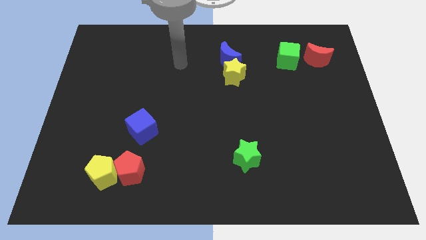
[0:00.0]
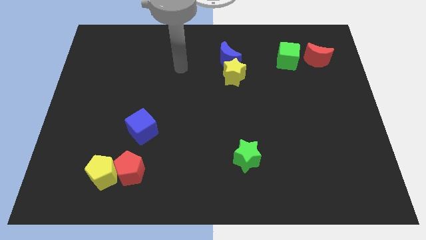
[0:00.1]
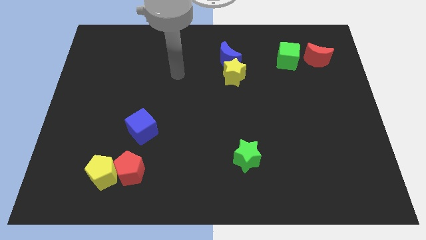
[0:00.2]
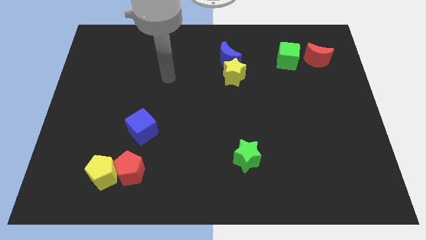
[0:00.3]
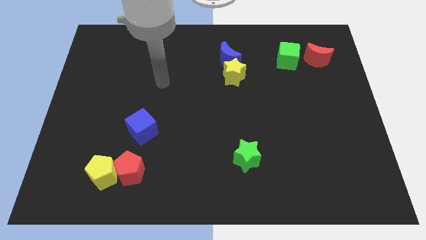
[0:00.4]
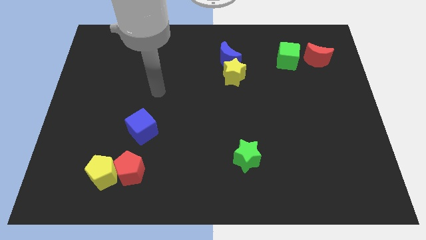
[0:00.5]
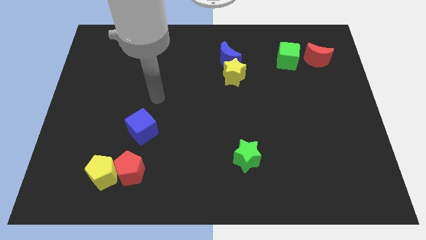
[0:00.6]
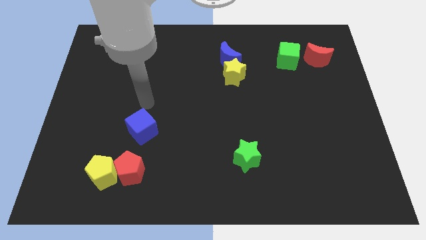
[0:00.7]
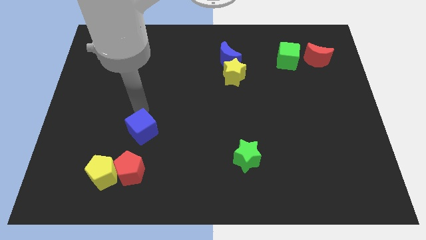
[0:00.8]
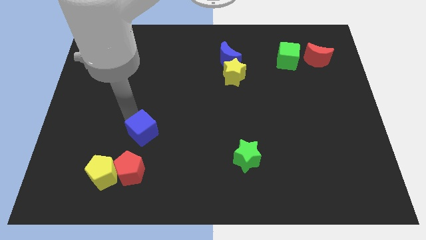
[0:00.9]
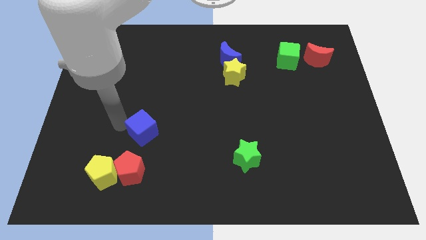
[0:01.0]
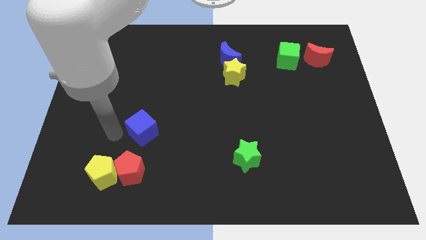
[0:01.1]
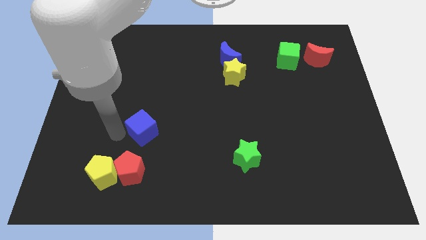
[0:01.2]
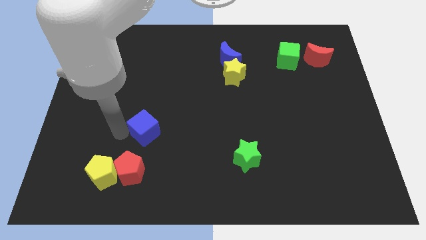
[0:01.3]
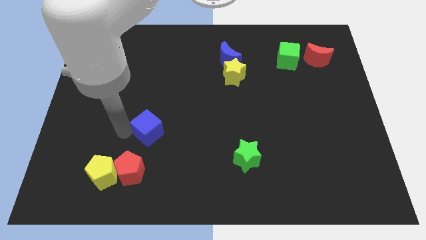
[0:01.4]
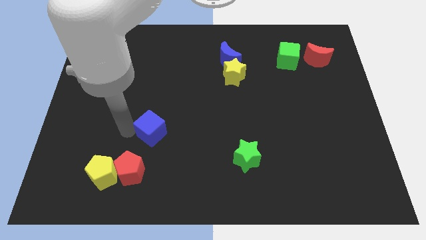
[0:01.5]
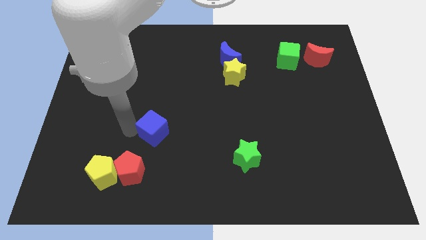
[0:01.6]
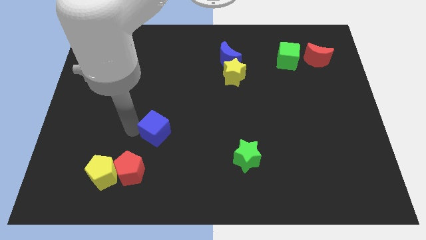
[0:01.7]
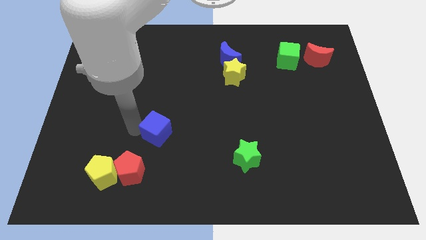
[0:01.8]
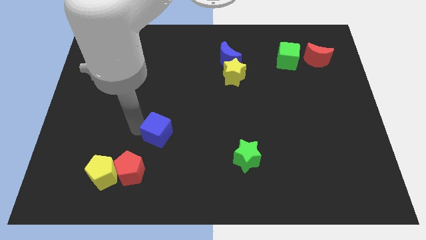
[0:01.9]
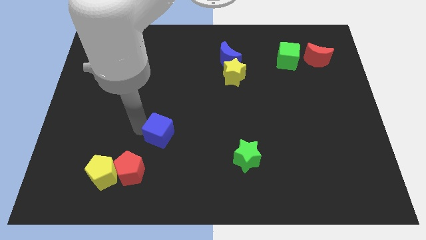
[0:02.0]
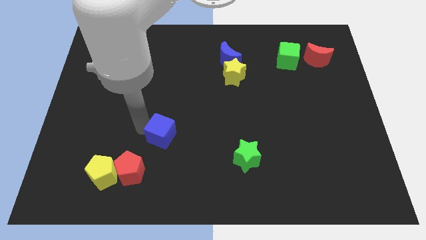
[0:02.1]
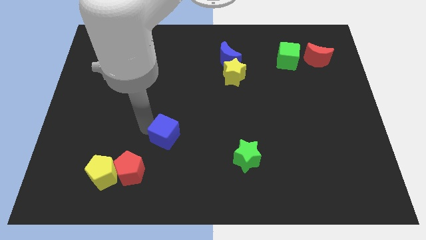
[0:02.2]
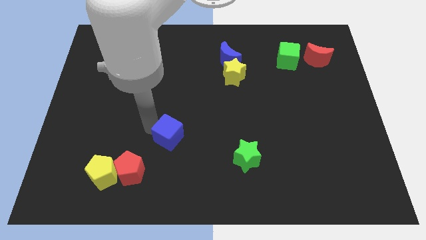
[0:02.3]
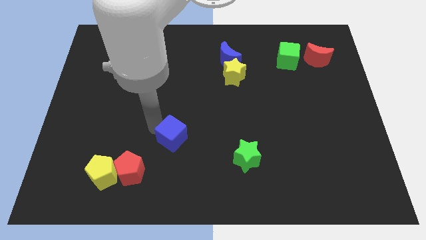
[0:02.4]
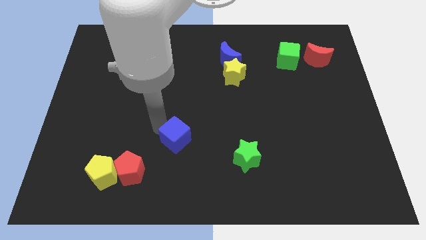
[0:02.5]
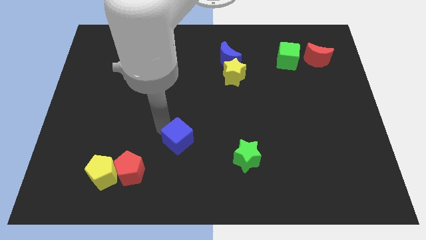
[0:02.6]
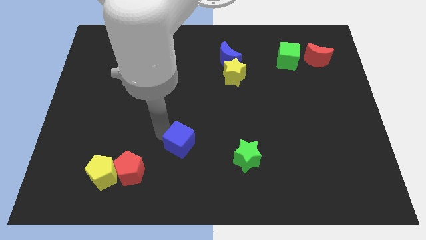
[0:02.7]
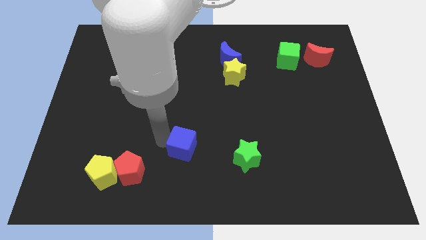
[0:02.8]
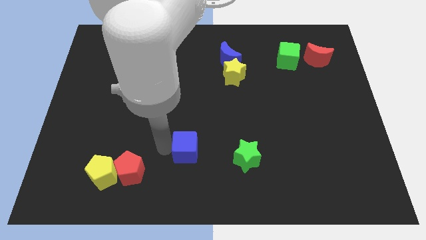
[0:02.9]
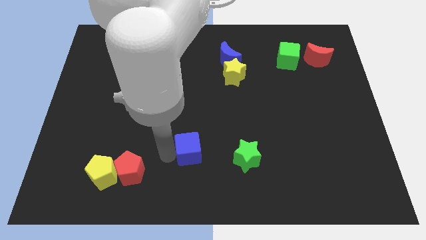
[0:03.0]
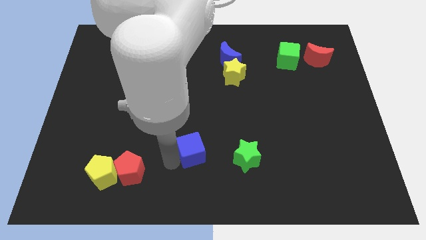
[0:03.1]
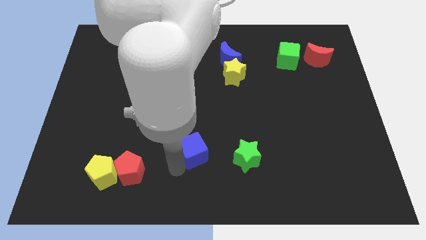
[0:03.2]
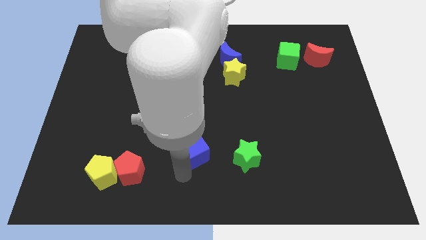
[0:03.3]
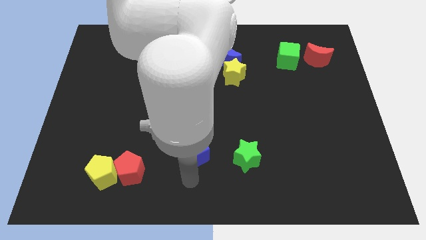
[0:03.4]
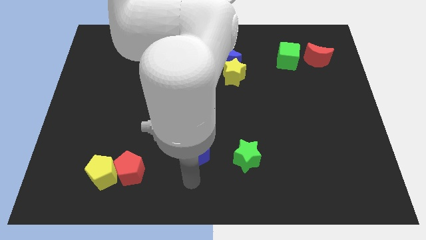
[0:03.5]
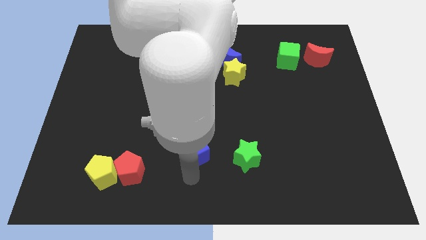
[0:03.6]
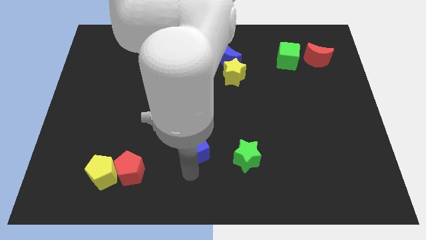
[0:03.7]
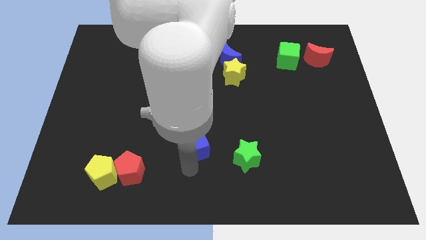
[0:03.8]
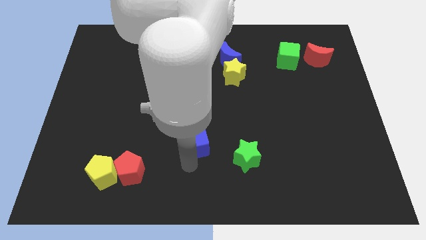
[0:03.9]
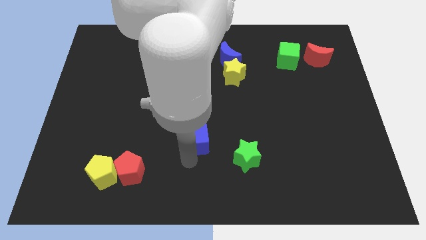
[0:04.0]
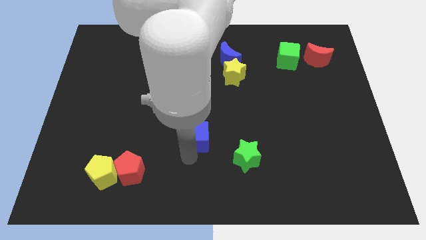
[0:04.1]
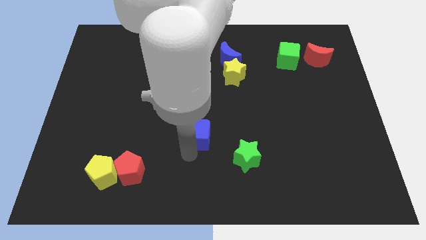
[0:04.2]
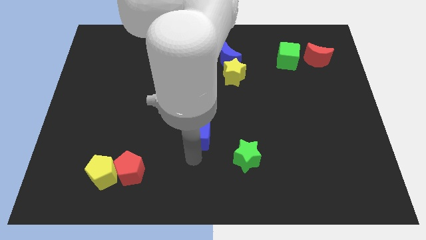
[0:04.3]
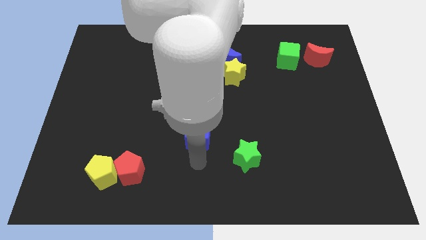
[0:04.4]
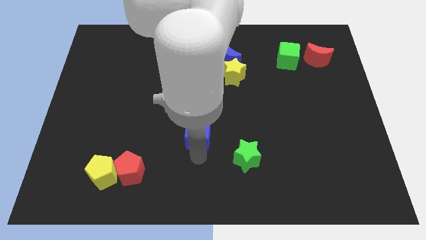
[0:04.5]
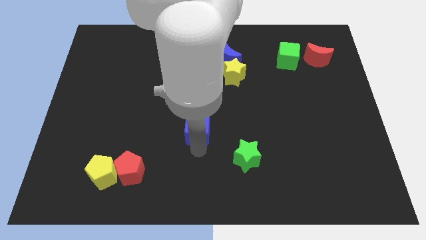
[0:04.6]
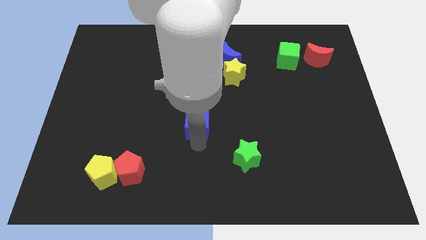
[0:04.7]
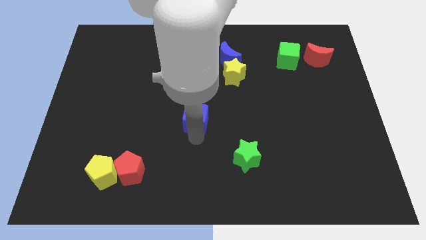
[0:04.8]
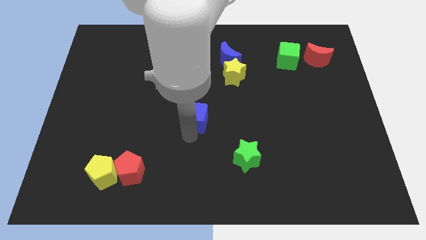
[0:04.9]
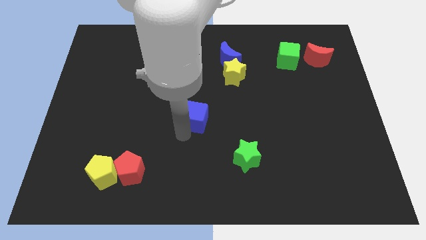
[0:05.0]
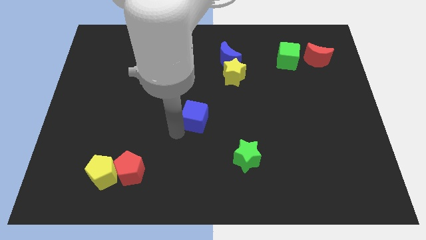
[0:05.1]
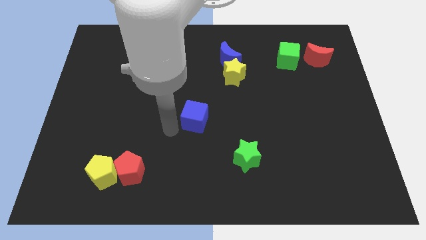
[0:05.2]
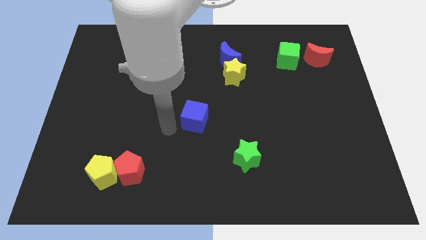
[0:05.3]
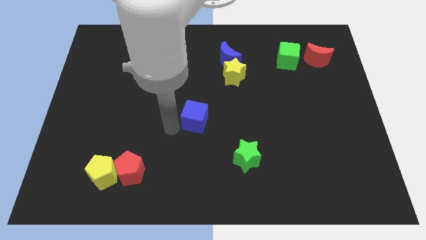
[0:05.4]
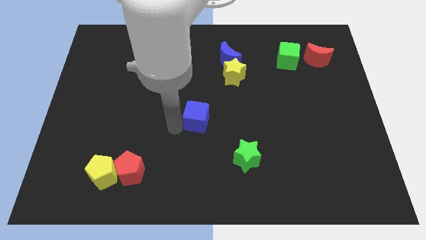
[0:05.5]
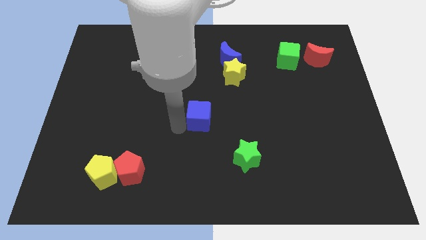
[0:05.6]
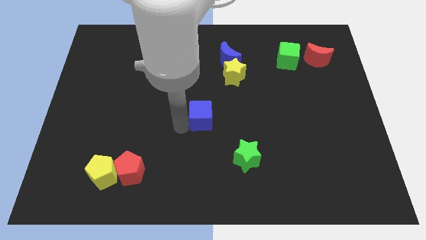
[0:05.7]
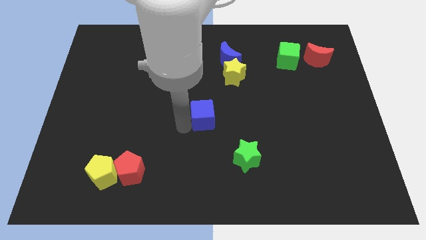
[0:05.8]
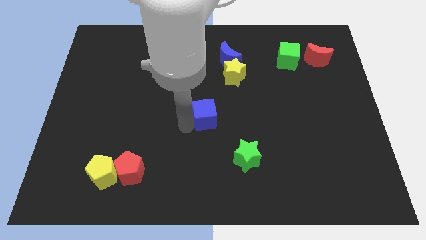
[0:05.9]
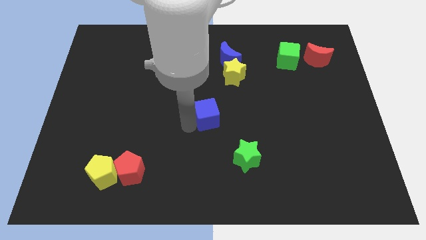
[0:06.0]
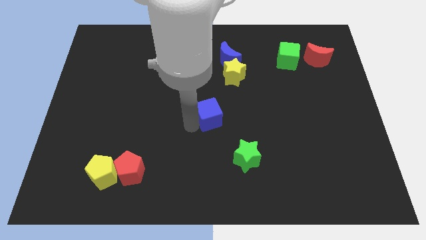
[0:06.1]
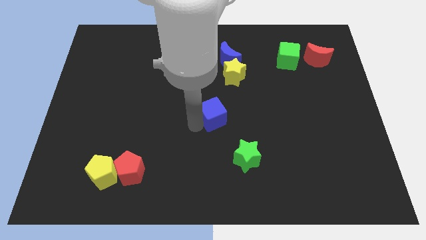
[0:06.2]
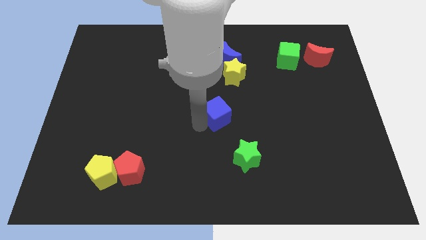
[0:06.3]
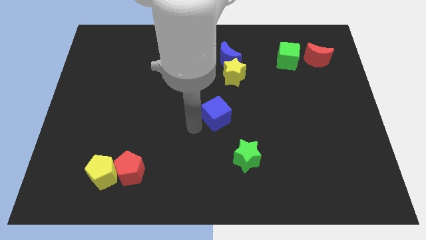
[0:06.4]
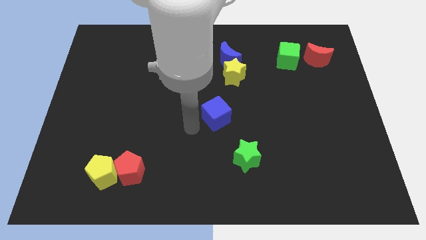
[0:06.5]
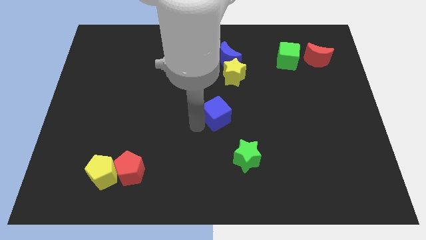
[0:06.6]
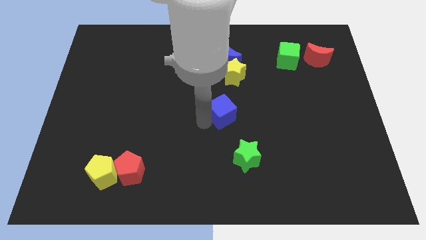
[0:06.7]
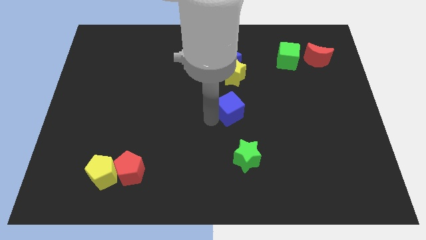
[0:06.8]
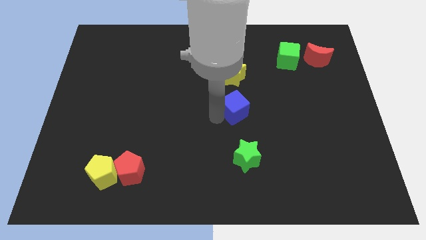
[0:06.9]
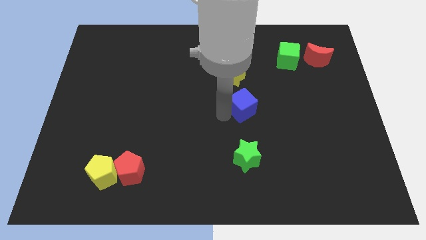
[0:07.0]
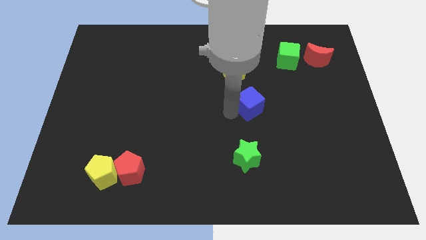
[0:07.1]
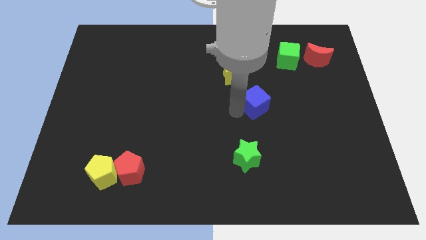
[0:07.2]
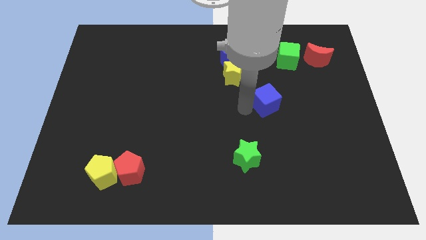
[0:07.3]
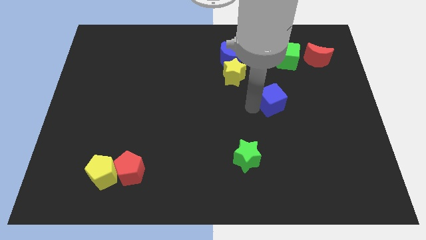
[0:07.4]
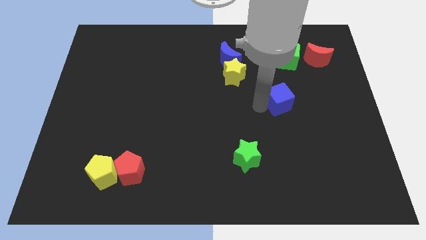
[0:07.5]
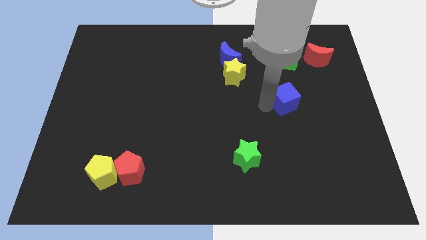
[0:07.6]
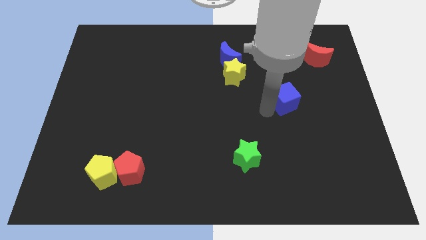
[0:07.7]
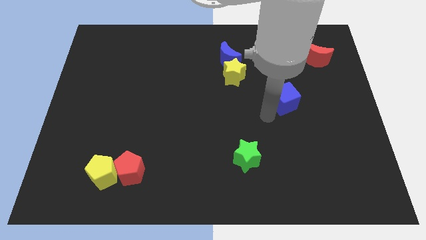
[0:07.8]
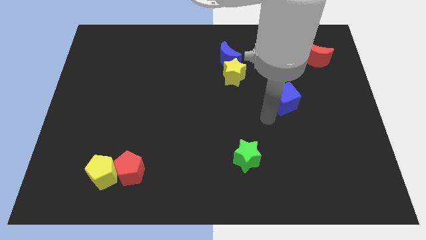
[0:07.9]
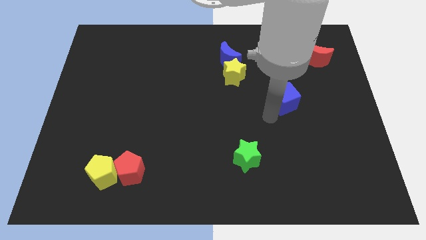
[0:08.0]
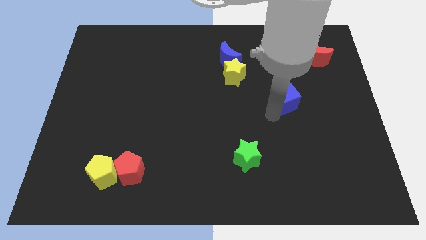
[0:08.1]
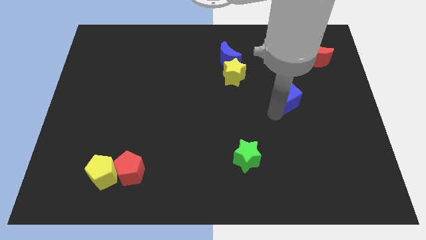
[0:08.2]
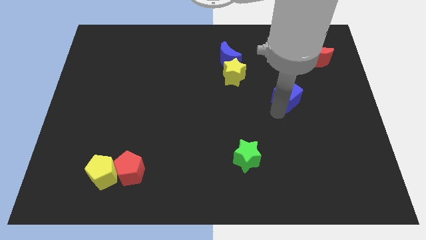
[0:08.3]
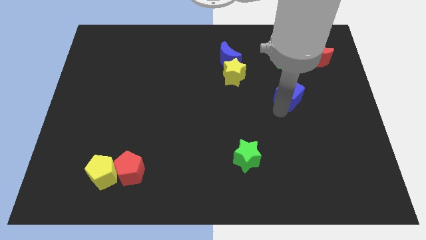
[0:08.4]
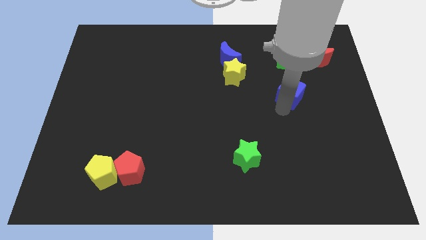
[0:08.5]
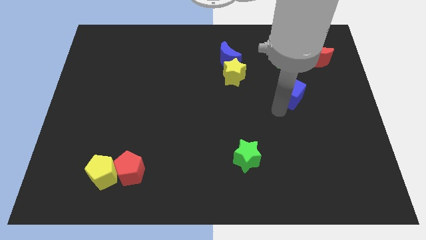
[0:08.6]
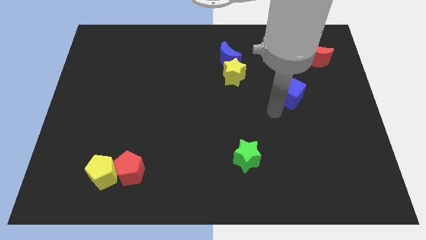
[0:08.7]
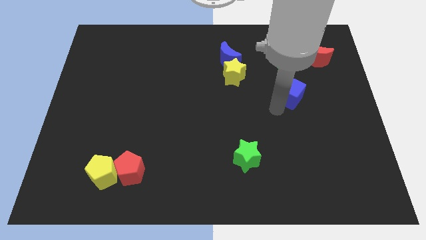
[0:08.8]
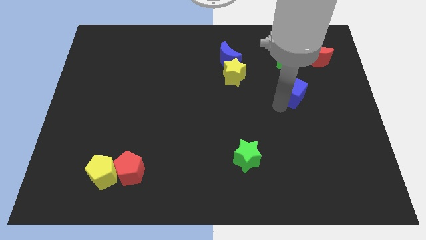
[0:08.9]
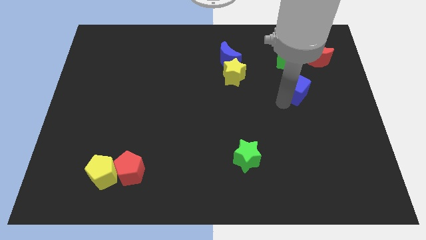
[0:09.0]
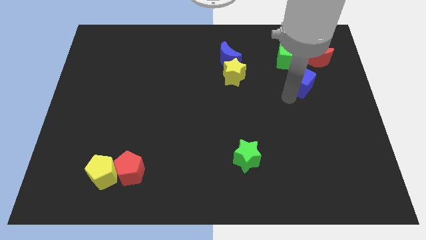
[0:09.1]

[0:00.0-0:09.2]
slide the blue cube to the bottom right of the green cube
